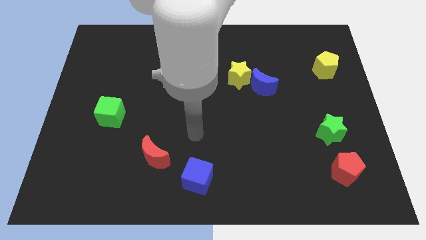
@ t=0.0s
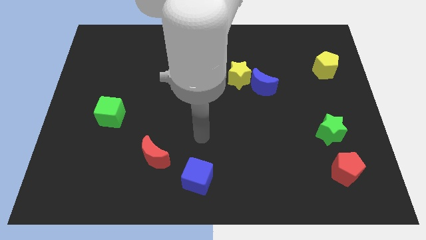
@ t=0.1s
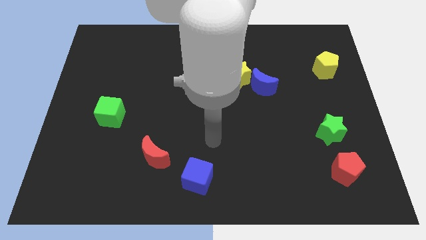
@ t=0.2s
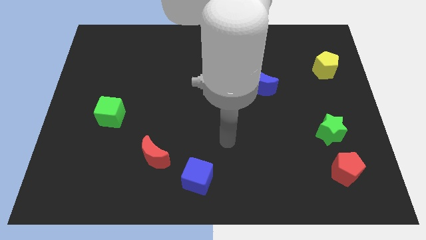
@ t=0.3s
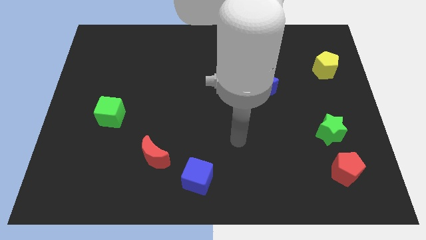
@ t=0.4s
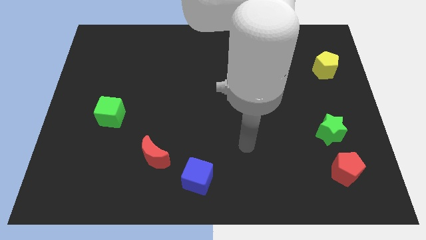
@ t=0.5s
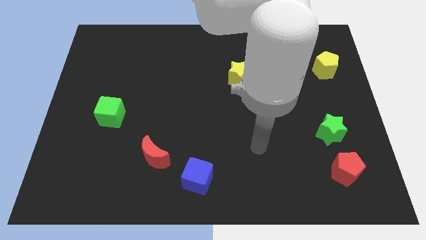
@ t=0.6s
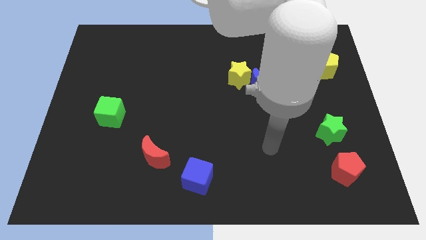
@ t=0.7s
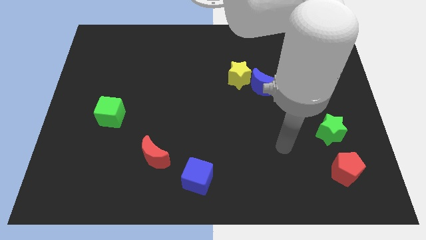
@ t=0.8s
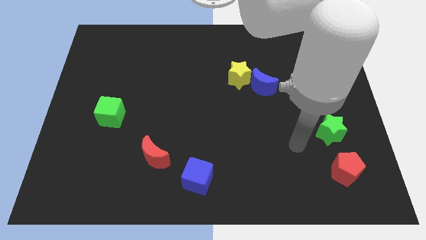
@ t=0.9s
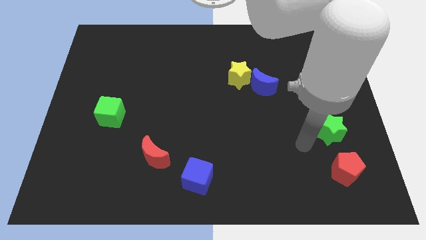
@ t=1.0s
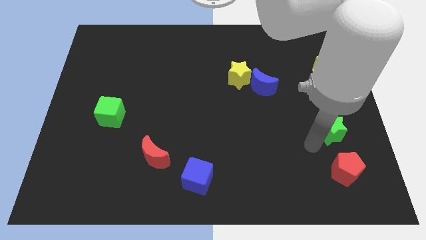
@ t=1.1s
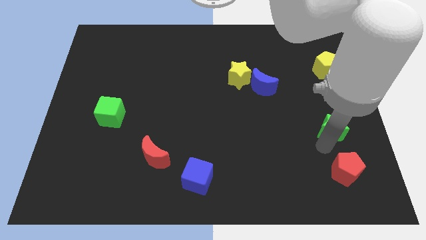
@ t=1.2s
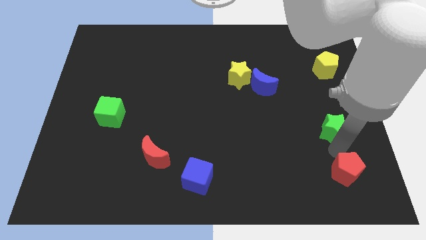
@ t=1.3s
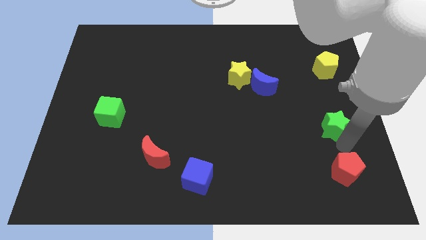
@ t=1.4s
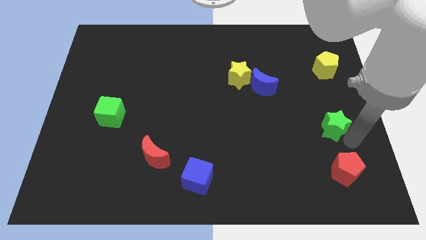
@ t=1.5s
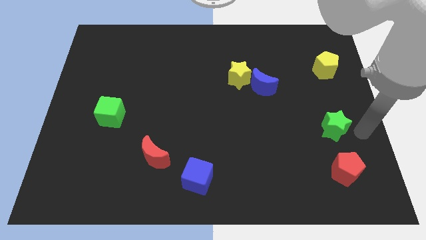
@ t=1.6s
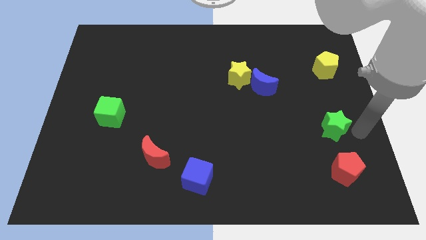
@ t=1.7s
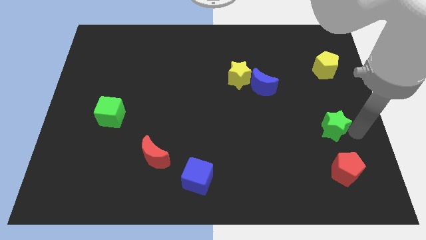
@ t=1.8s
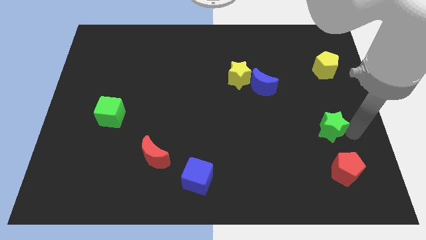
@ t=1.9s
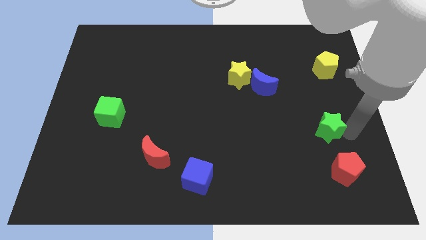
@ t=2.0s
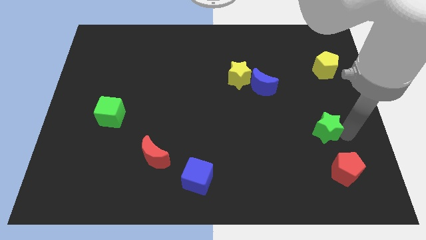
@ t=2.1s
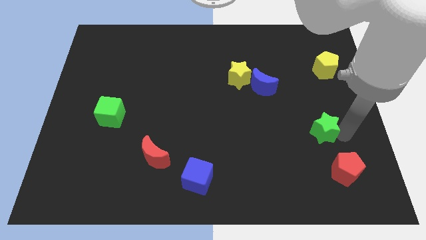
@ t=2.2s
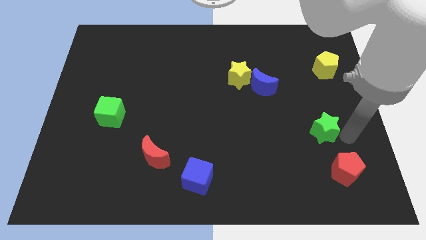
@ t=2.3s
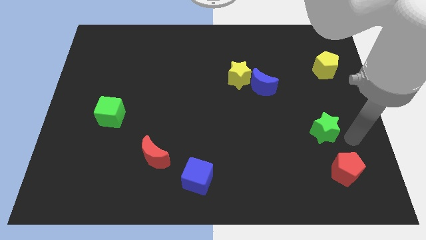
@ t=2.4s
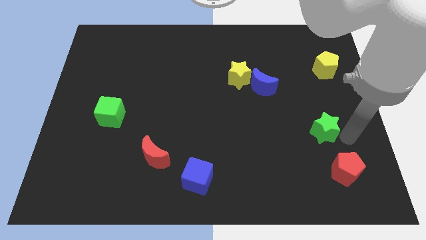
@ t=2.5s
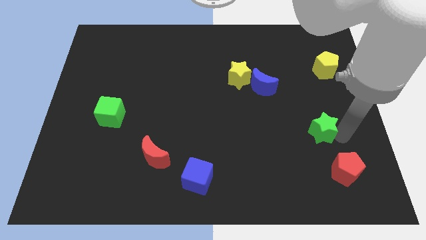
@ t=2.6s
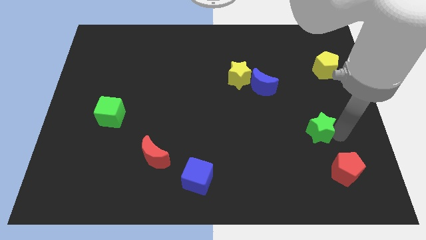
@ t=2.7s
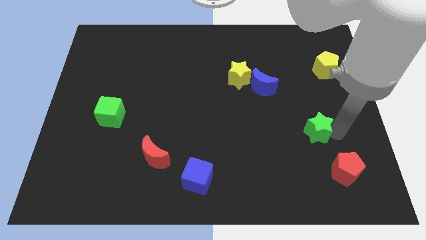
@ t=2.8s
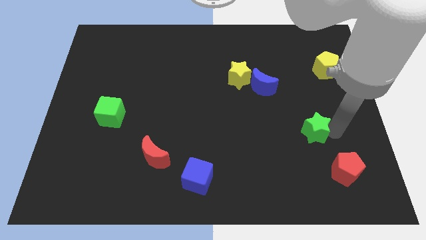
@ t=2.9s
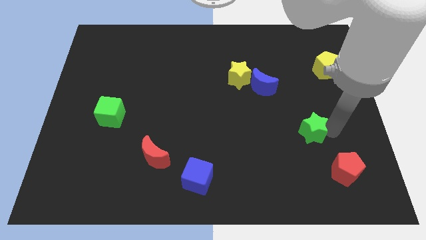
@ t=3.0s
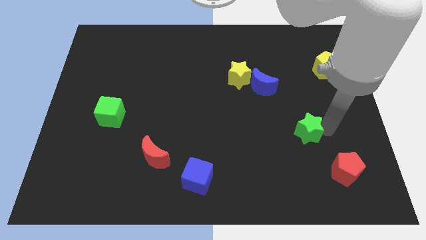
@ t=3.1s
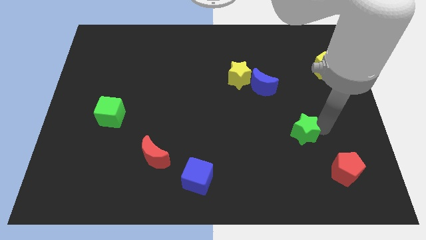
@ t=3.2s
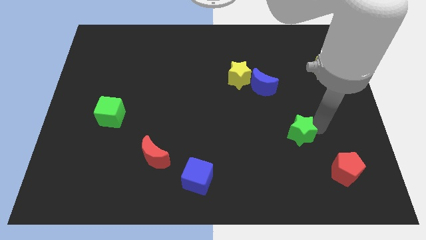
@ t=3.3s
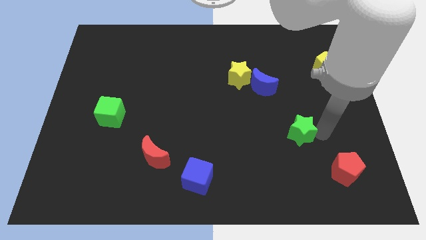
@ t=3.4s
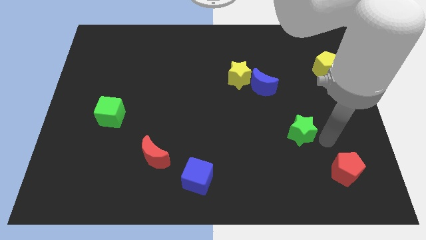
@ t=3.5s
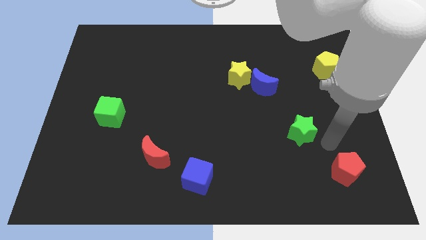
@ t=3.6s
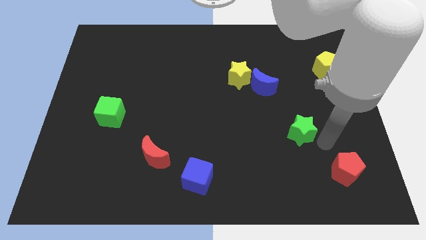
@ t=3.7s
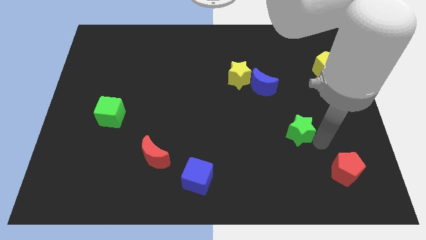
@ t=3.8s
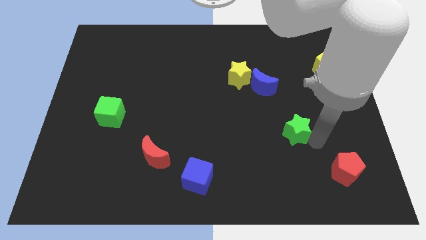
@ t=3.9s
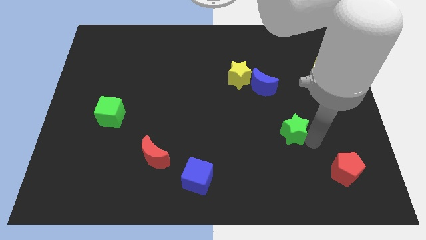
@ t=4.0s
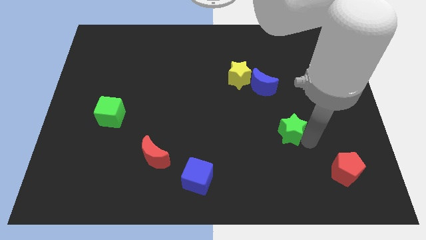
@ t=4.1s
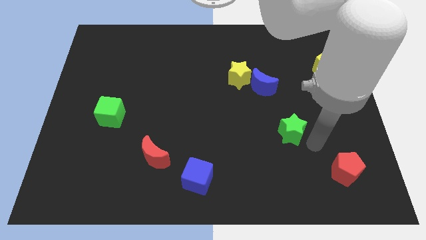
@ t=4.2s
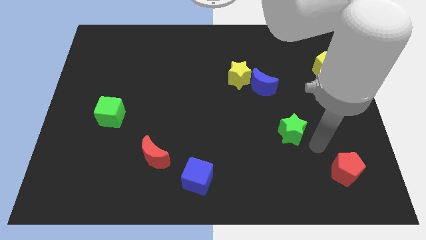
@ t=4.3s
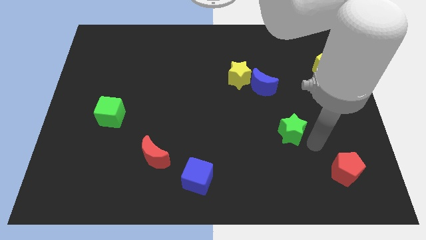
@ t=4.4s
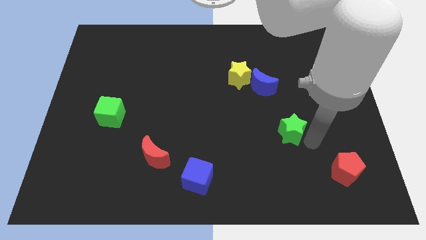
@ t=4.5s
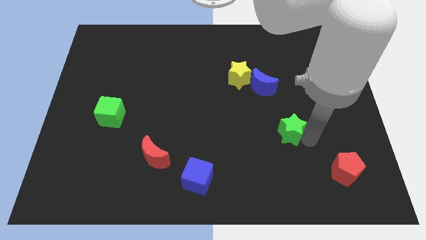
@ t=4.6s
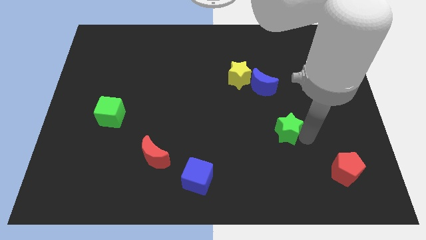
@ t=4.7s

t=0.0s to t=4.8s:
push the green star to the bottom side of the blue moon

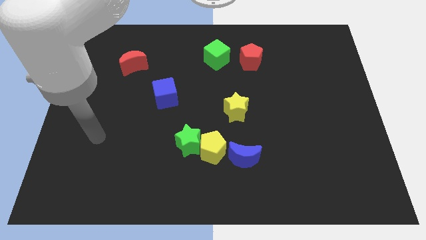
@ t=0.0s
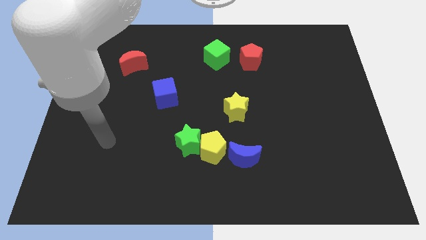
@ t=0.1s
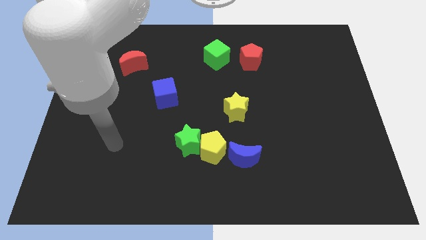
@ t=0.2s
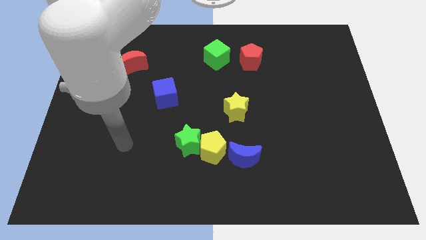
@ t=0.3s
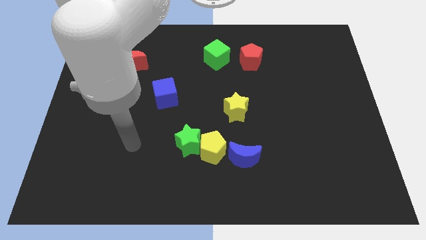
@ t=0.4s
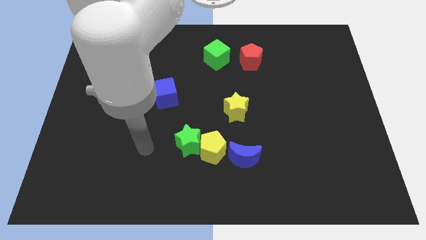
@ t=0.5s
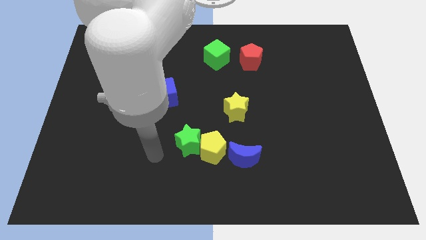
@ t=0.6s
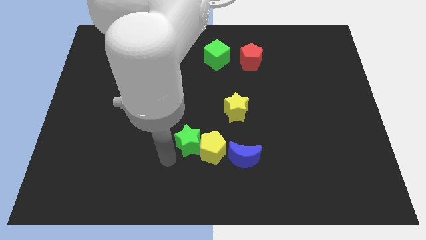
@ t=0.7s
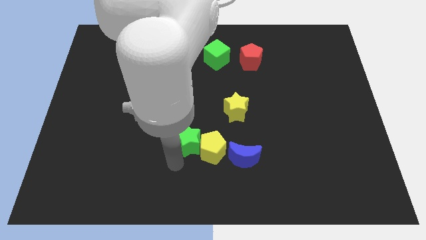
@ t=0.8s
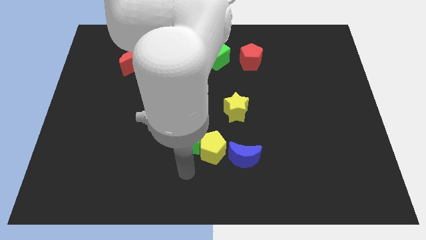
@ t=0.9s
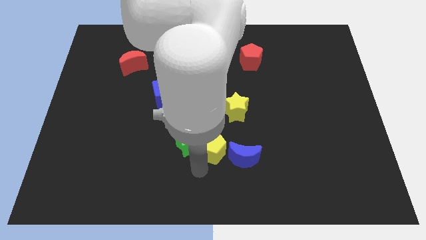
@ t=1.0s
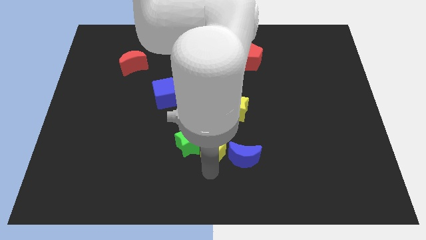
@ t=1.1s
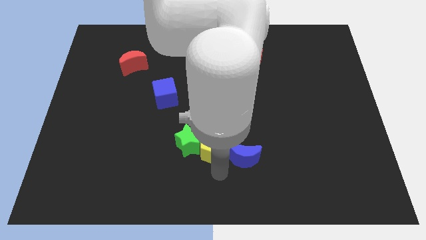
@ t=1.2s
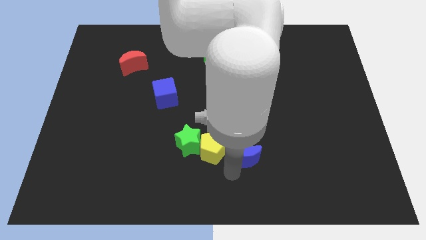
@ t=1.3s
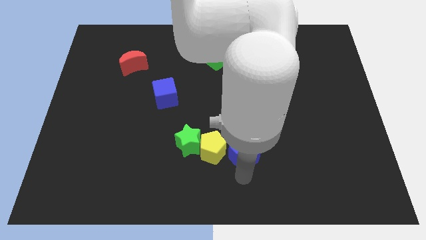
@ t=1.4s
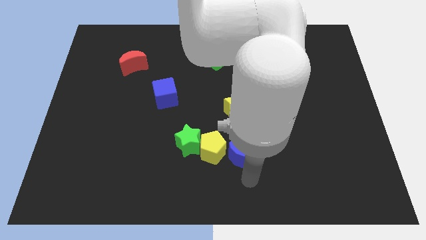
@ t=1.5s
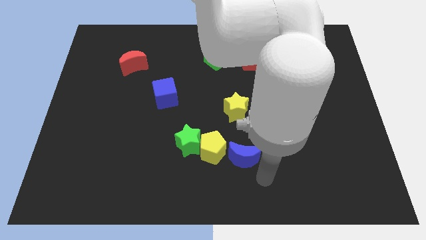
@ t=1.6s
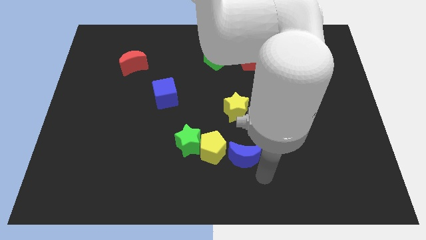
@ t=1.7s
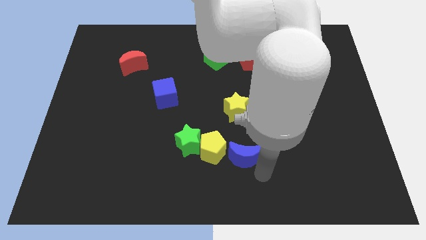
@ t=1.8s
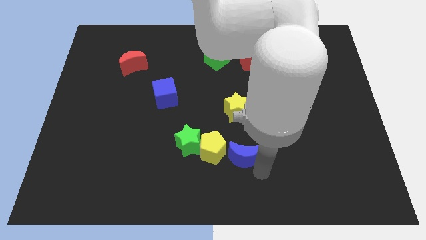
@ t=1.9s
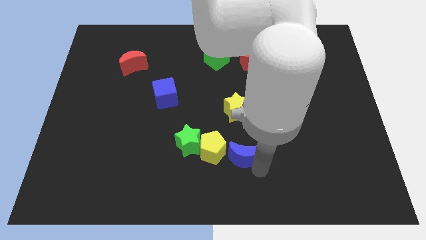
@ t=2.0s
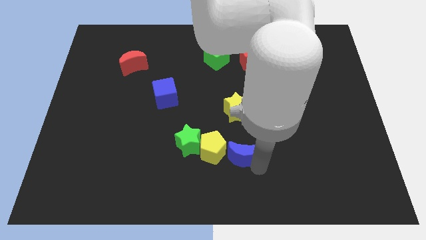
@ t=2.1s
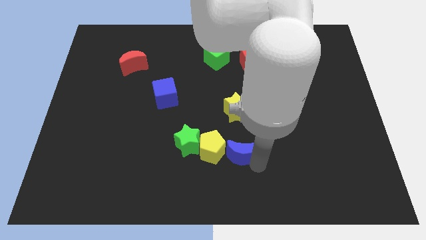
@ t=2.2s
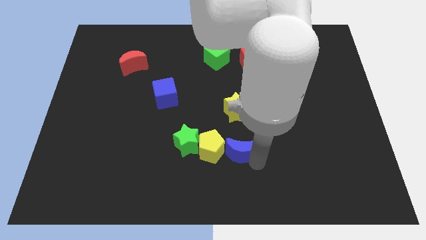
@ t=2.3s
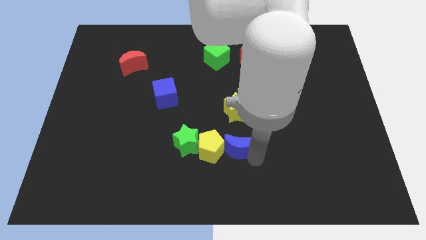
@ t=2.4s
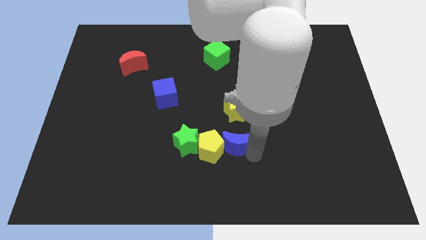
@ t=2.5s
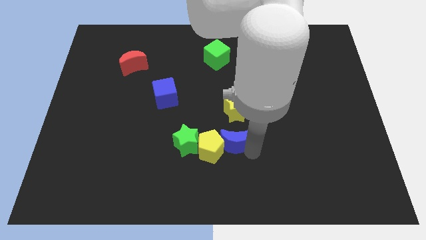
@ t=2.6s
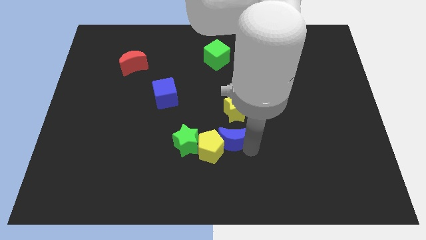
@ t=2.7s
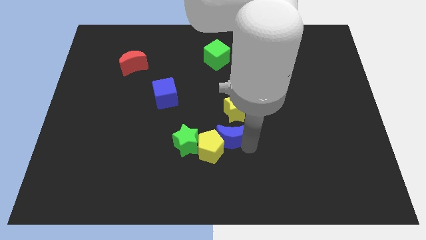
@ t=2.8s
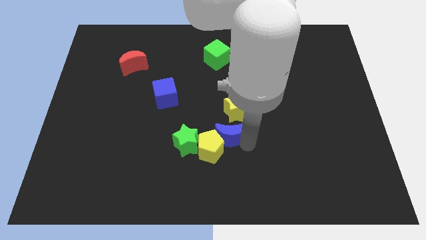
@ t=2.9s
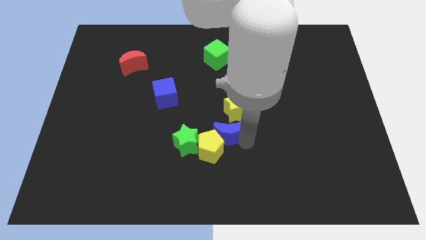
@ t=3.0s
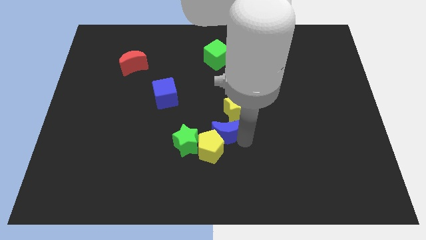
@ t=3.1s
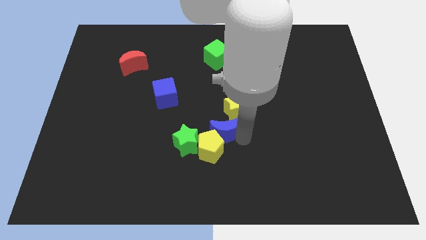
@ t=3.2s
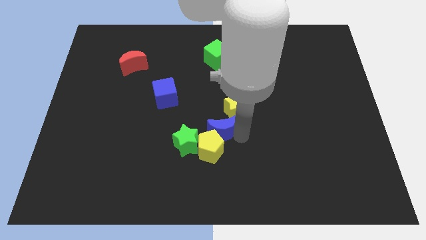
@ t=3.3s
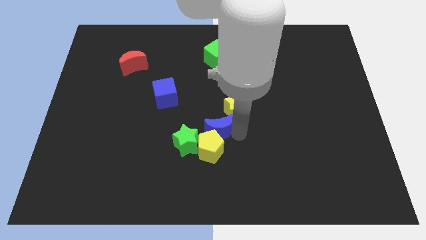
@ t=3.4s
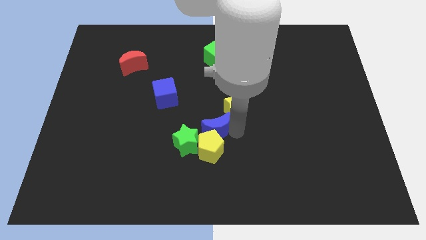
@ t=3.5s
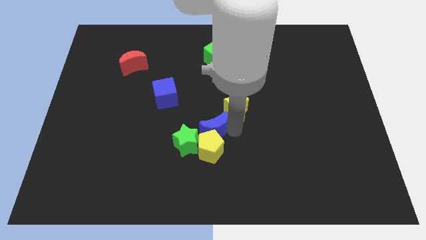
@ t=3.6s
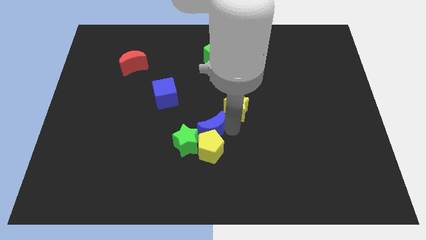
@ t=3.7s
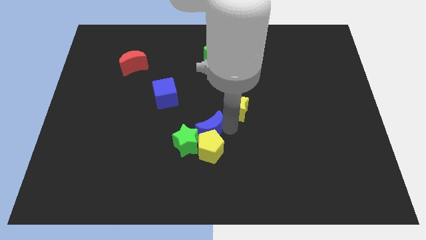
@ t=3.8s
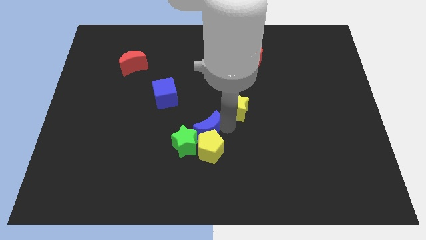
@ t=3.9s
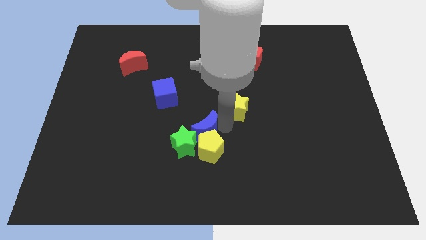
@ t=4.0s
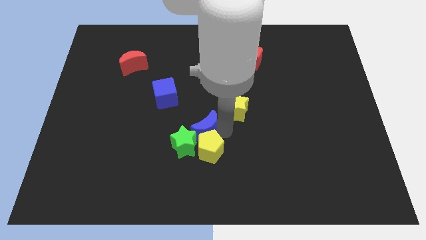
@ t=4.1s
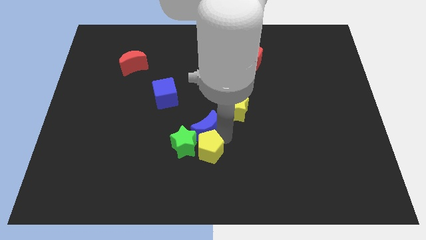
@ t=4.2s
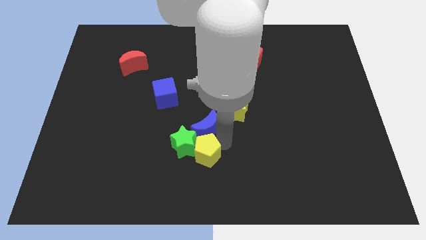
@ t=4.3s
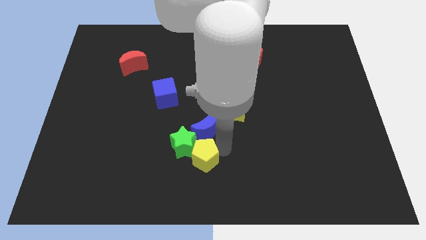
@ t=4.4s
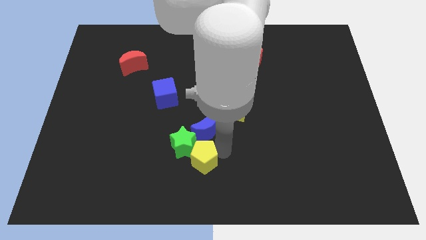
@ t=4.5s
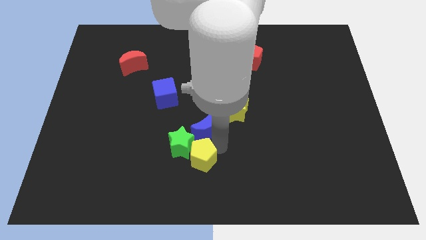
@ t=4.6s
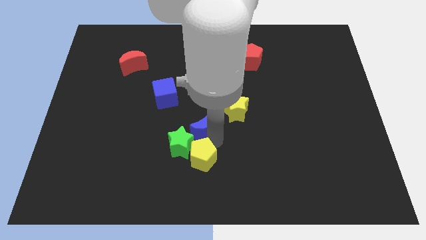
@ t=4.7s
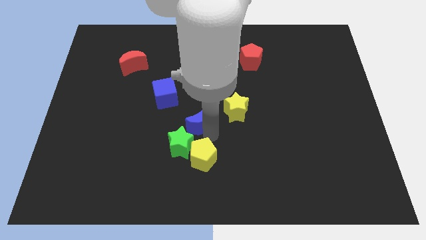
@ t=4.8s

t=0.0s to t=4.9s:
move the blue moon to the left side of the yellow star
